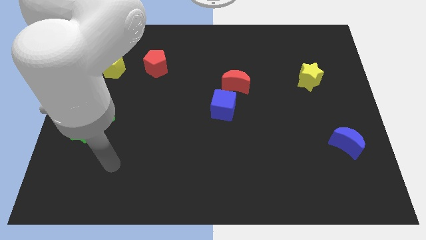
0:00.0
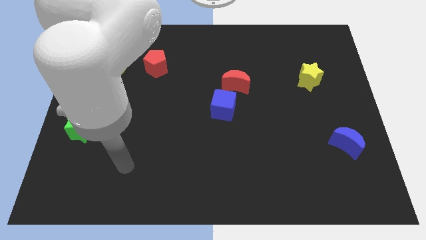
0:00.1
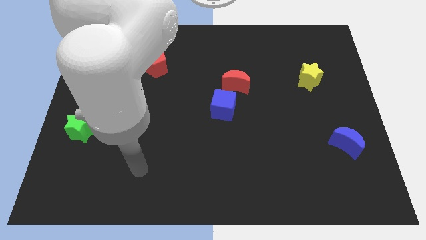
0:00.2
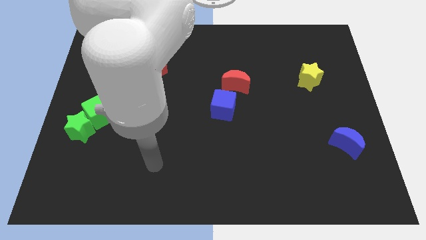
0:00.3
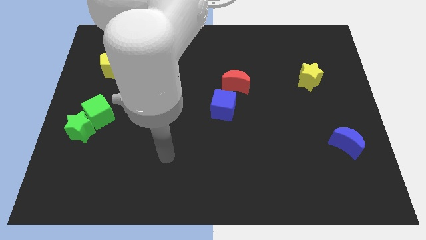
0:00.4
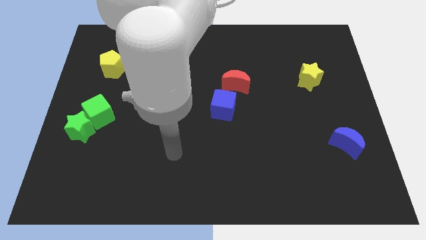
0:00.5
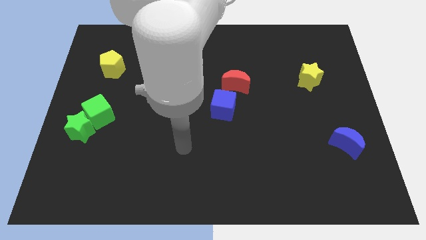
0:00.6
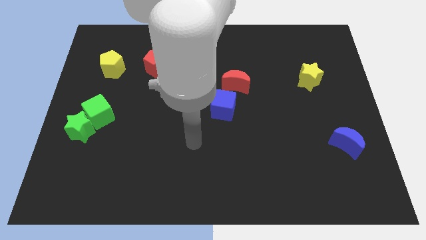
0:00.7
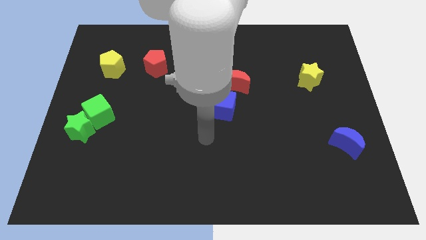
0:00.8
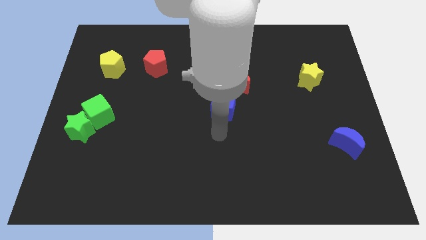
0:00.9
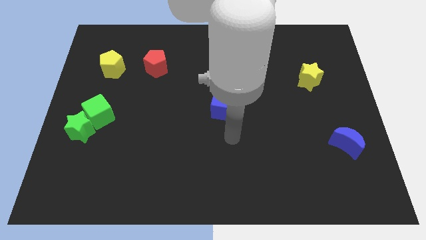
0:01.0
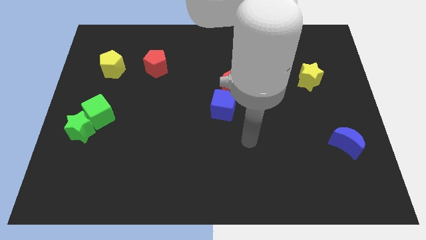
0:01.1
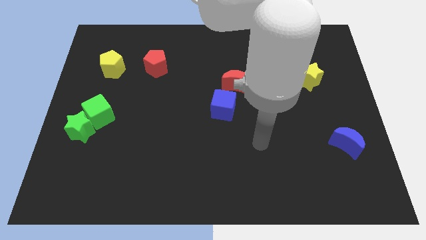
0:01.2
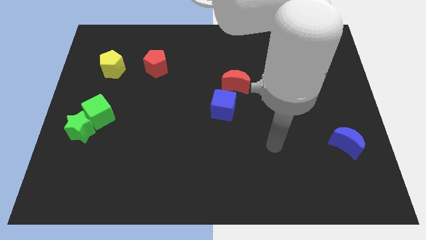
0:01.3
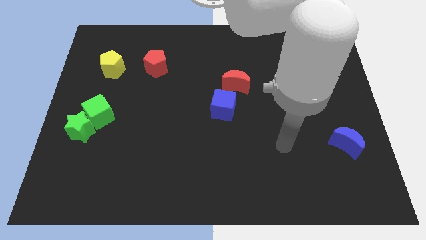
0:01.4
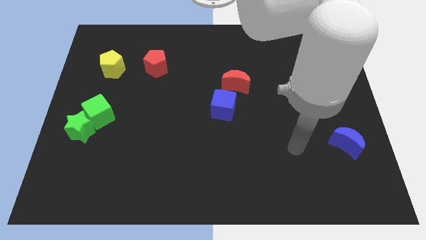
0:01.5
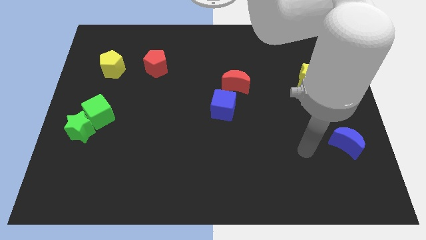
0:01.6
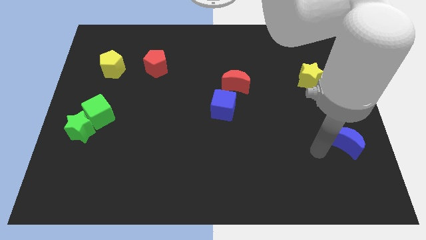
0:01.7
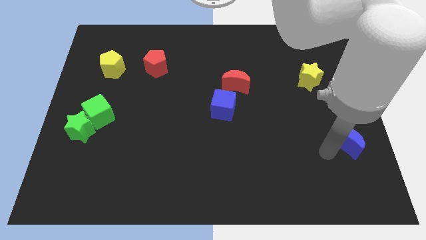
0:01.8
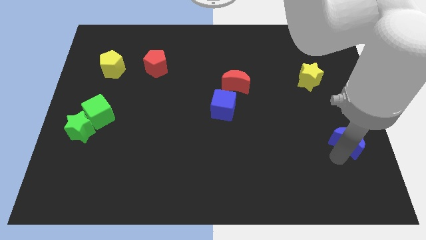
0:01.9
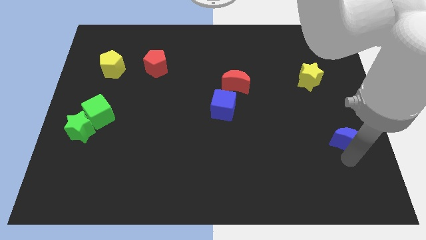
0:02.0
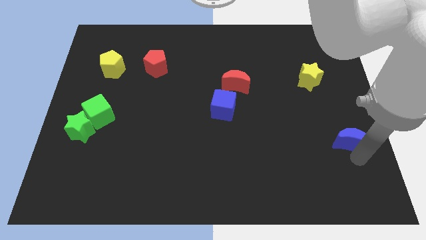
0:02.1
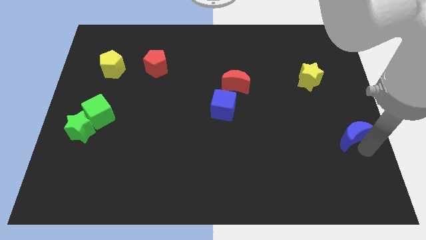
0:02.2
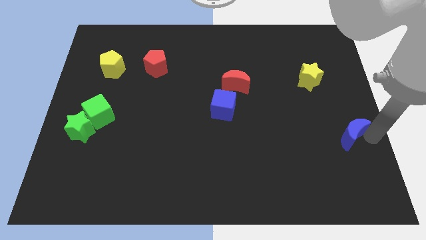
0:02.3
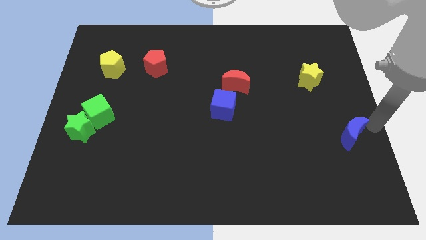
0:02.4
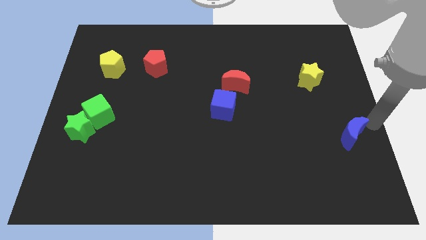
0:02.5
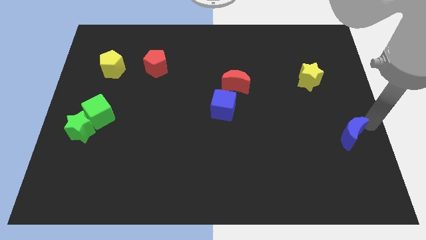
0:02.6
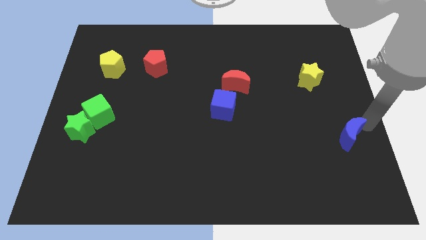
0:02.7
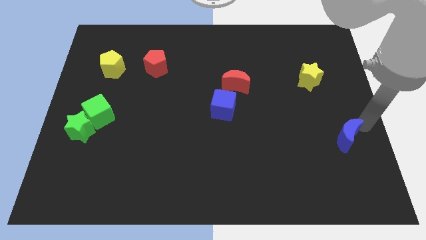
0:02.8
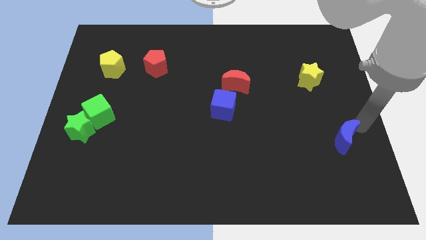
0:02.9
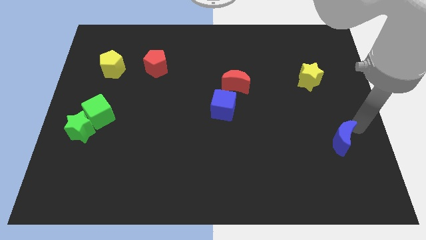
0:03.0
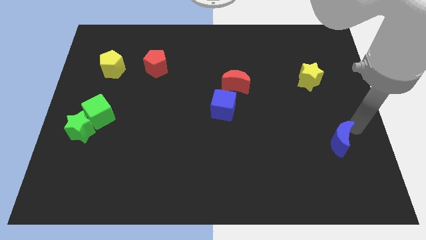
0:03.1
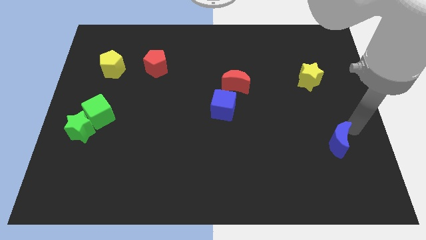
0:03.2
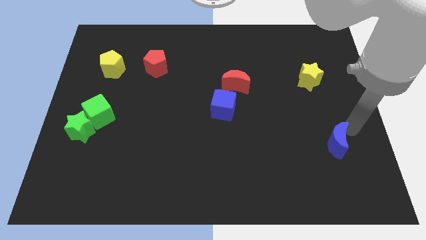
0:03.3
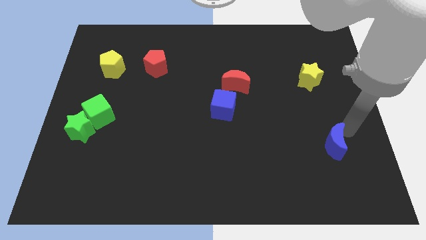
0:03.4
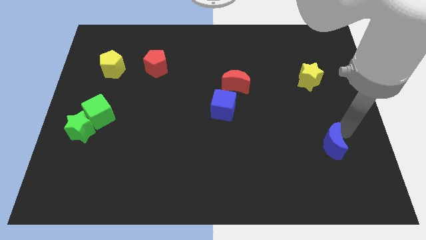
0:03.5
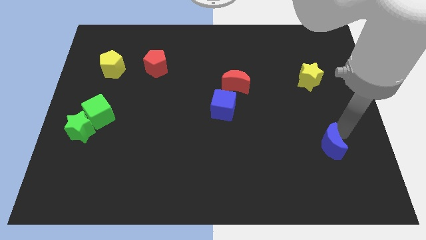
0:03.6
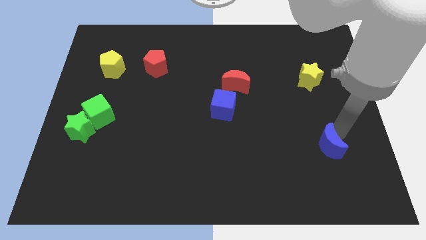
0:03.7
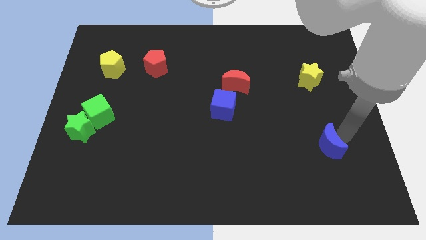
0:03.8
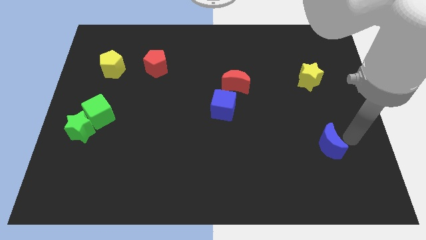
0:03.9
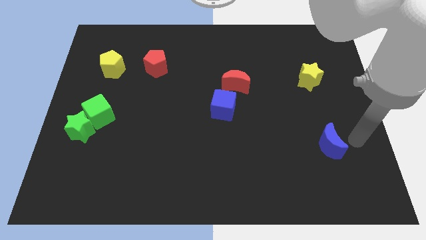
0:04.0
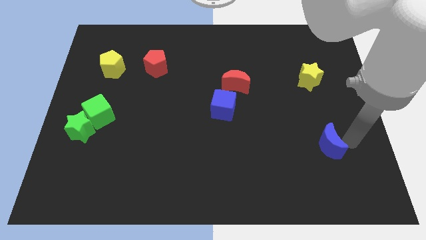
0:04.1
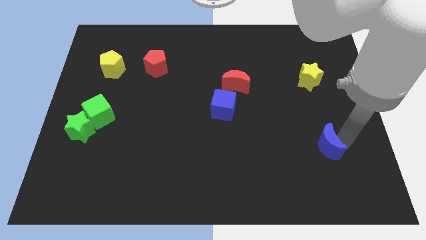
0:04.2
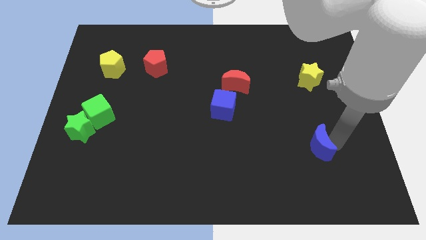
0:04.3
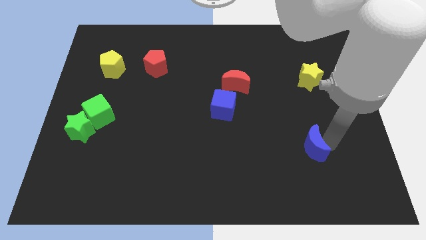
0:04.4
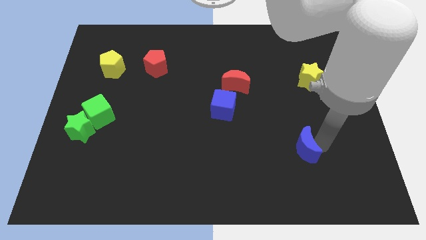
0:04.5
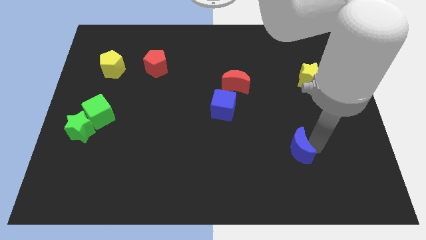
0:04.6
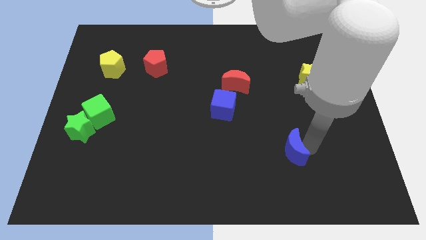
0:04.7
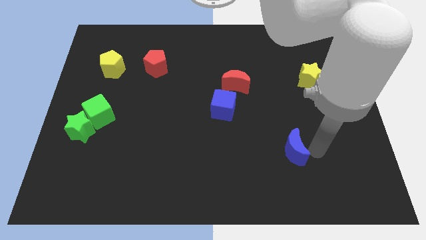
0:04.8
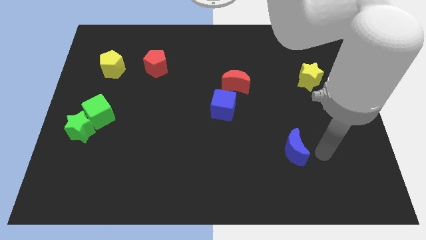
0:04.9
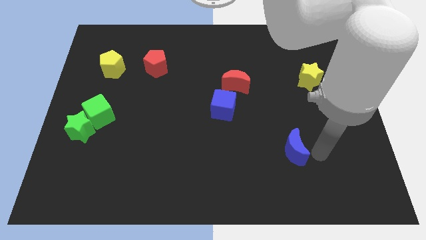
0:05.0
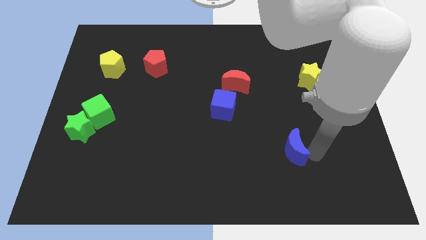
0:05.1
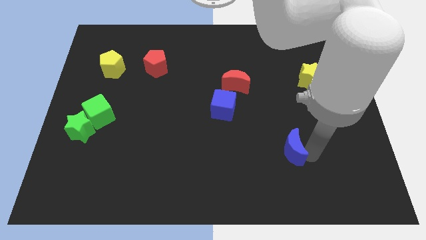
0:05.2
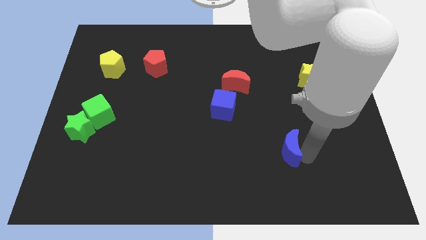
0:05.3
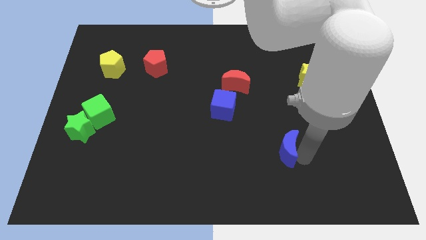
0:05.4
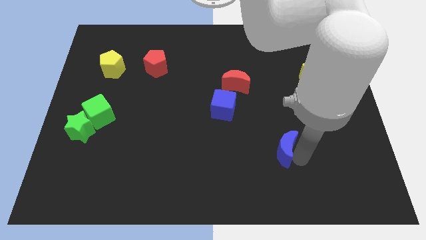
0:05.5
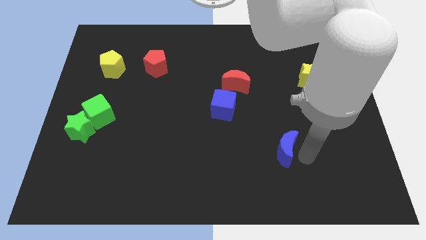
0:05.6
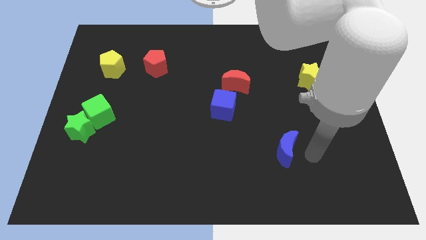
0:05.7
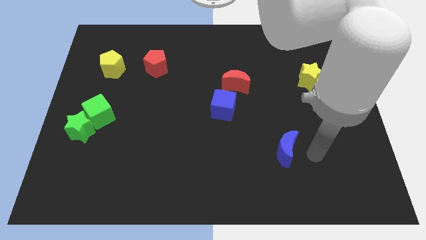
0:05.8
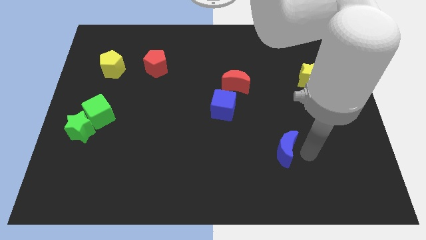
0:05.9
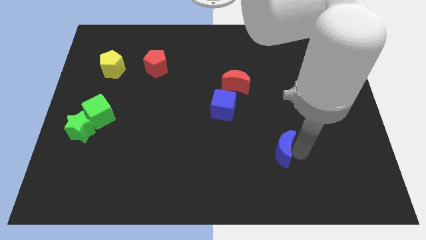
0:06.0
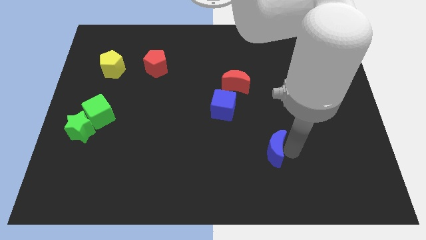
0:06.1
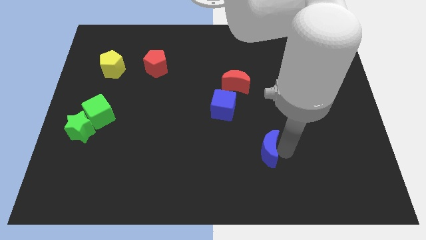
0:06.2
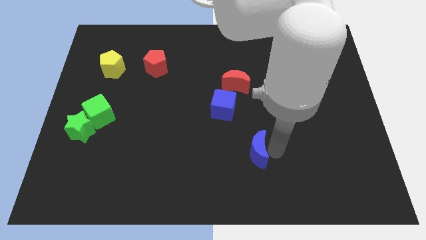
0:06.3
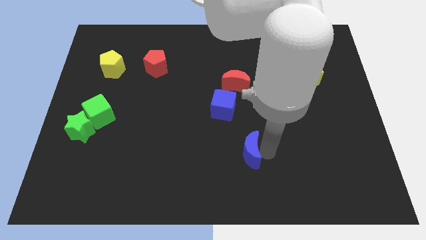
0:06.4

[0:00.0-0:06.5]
push the blue moon to the left

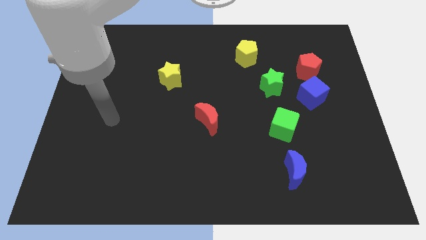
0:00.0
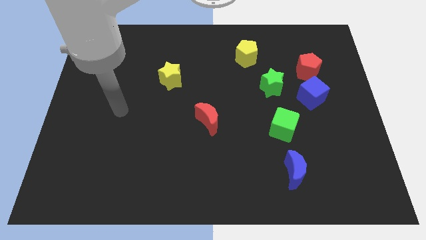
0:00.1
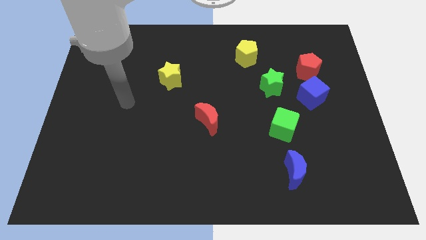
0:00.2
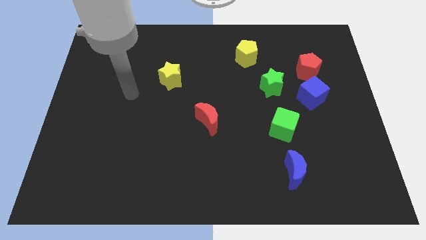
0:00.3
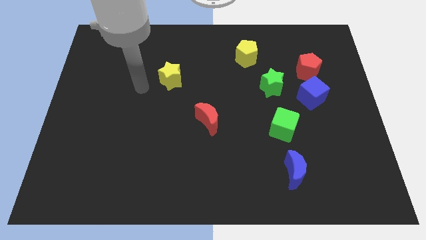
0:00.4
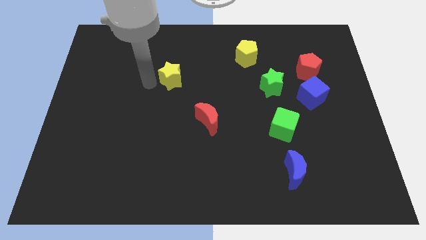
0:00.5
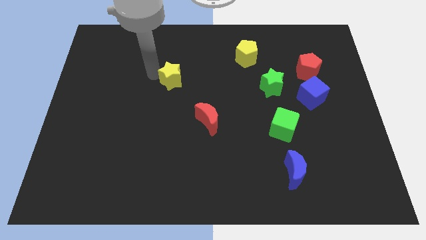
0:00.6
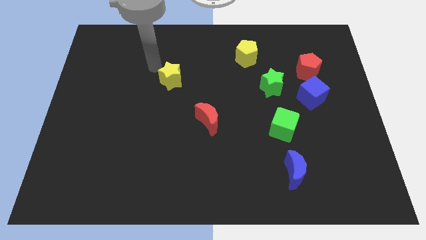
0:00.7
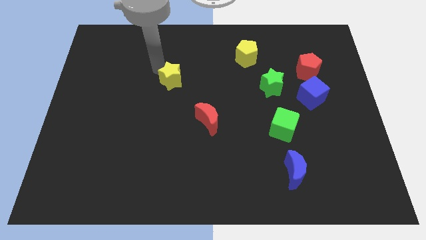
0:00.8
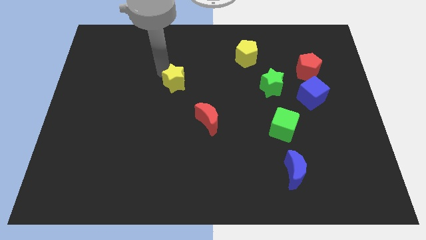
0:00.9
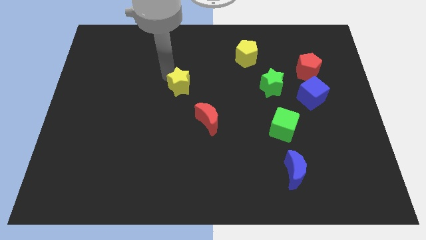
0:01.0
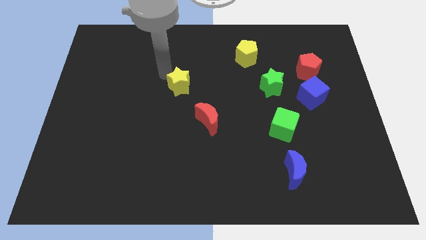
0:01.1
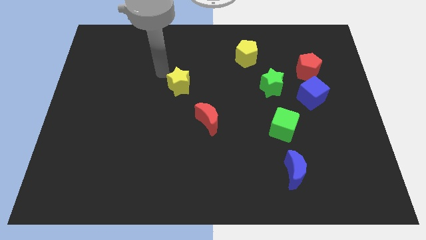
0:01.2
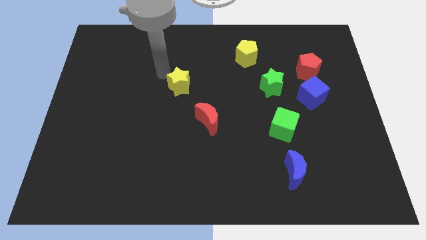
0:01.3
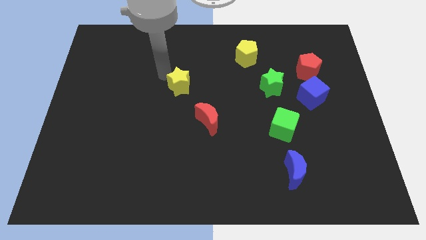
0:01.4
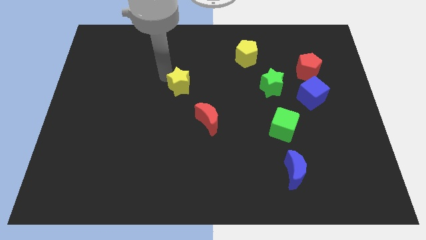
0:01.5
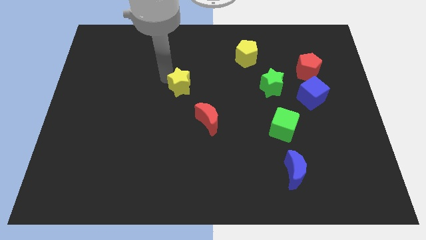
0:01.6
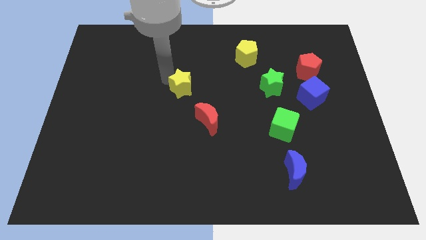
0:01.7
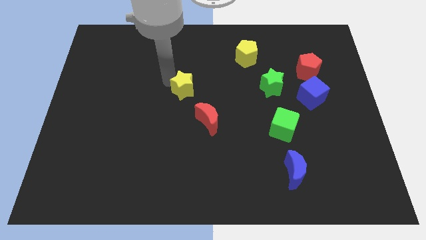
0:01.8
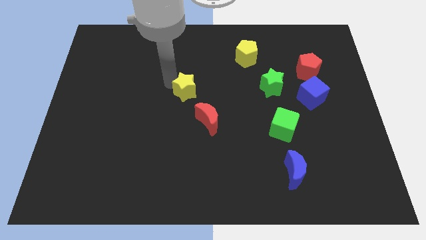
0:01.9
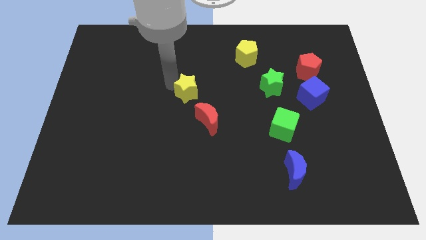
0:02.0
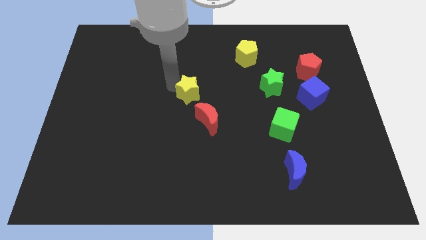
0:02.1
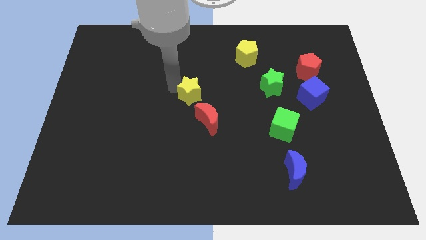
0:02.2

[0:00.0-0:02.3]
slightly move the yellow star diagonally down and to the right
